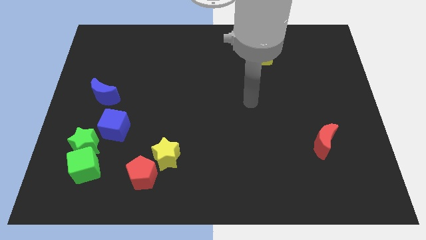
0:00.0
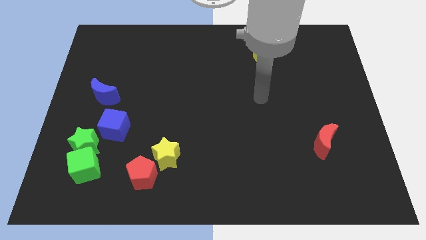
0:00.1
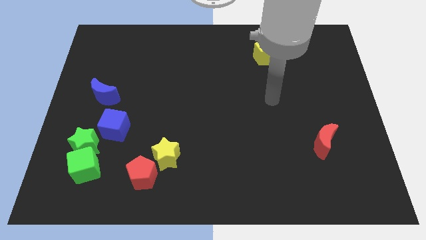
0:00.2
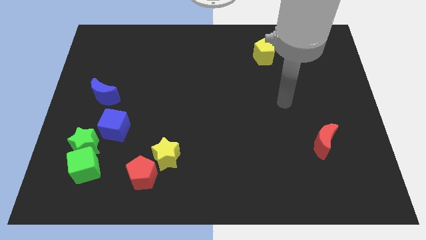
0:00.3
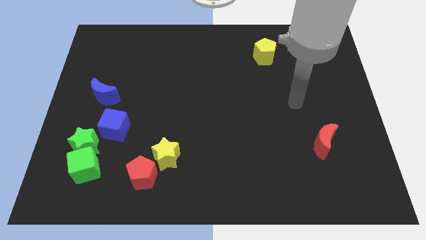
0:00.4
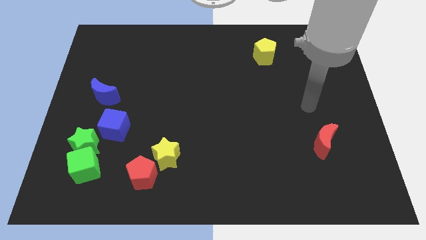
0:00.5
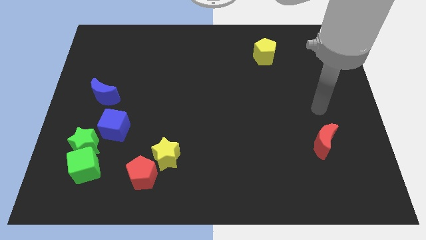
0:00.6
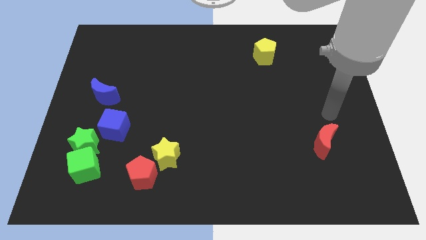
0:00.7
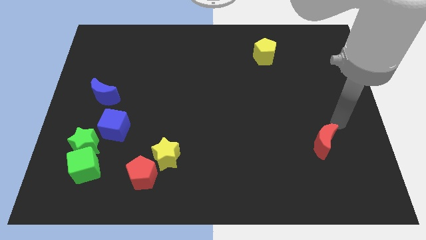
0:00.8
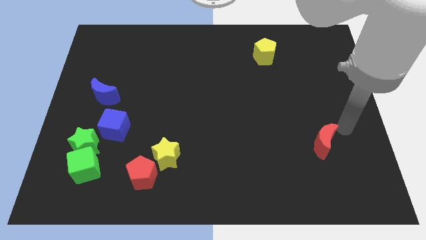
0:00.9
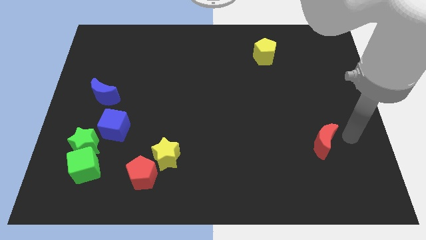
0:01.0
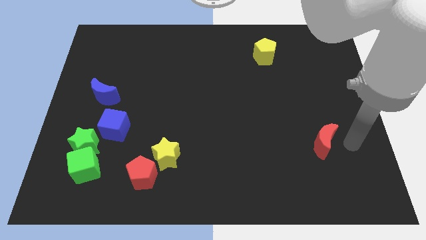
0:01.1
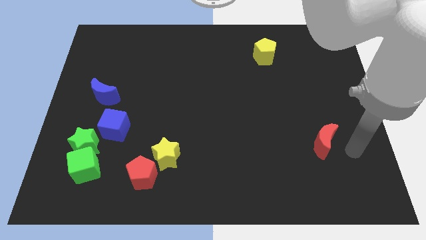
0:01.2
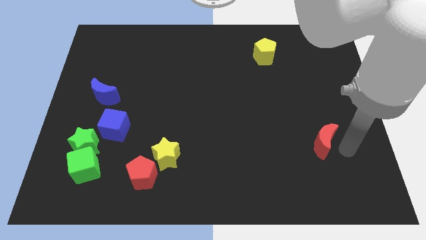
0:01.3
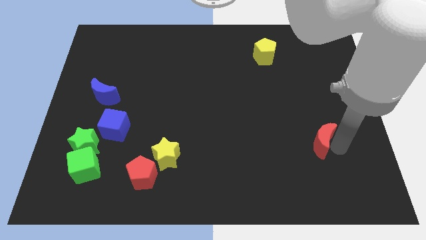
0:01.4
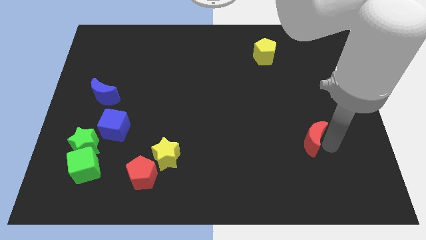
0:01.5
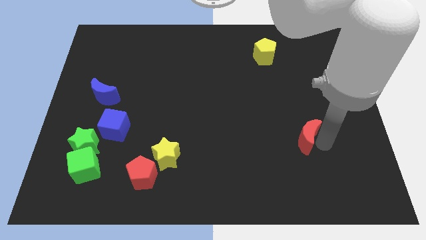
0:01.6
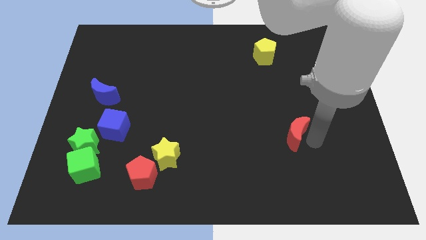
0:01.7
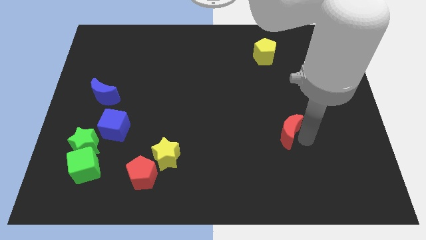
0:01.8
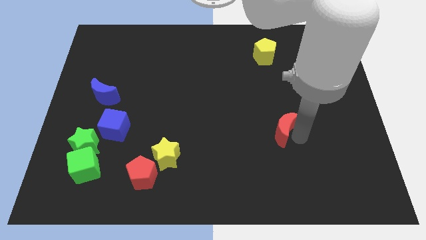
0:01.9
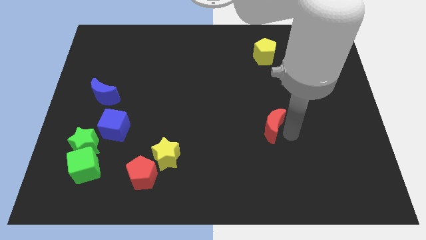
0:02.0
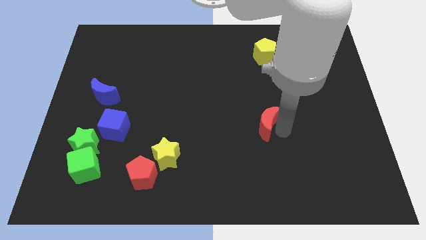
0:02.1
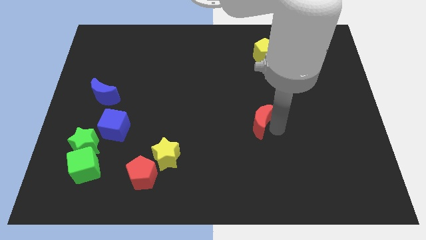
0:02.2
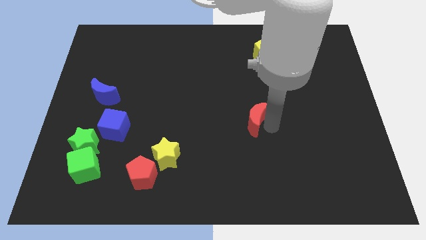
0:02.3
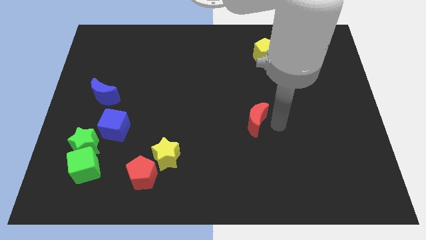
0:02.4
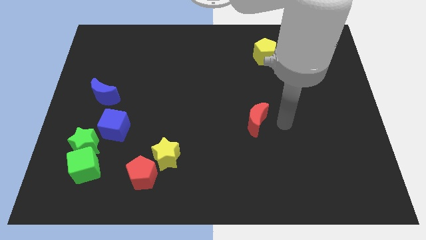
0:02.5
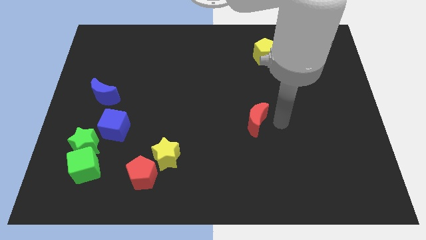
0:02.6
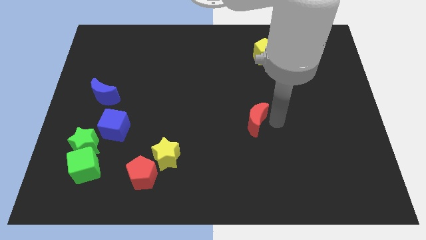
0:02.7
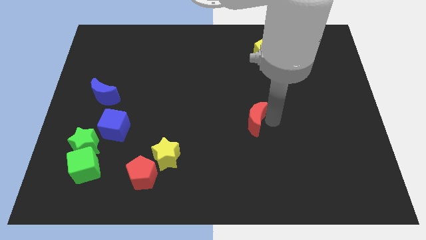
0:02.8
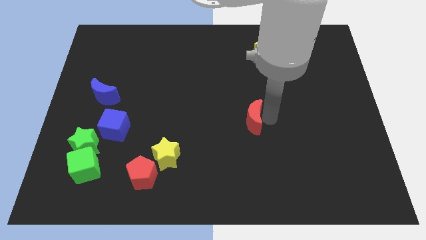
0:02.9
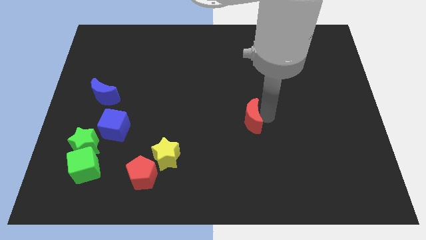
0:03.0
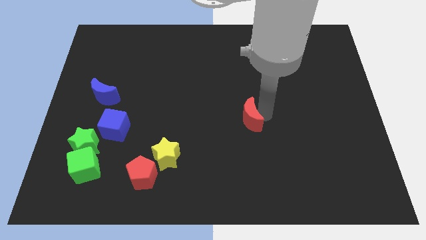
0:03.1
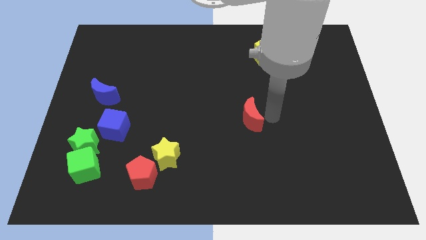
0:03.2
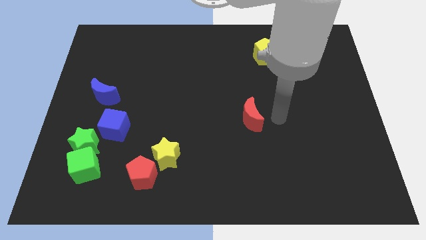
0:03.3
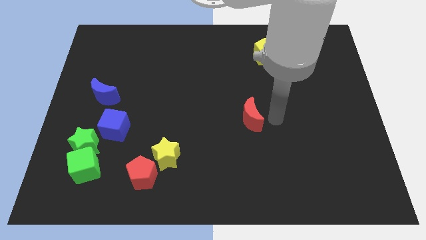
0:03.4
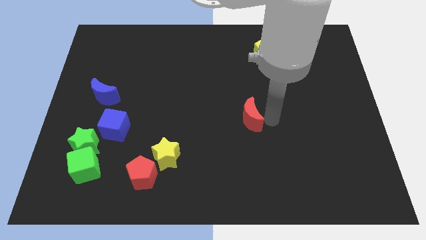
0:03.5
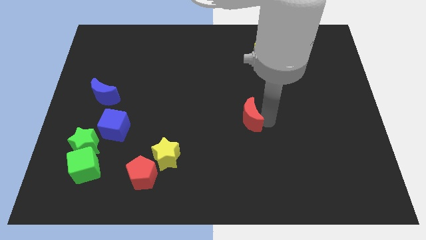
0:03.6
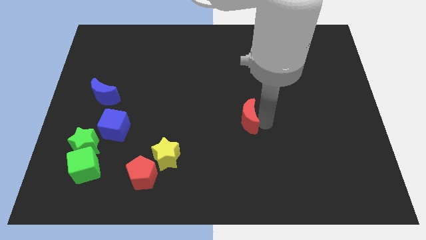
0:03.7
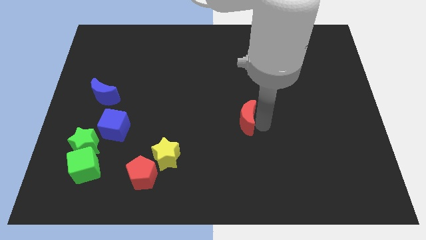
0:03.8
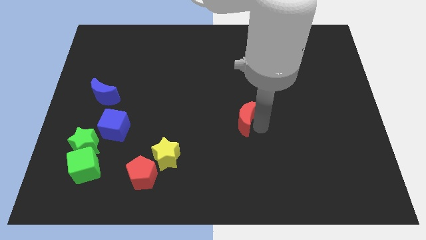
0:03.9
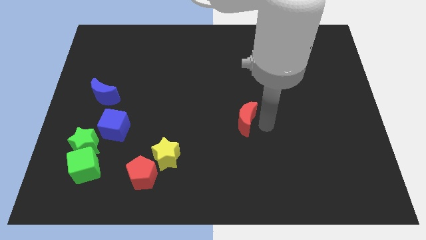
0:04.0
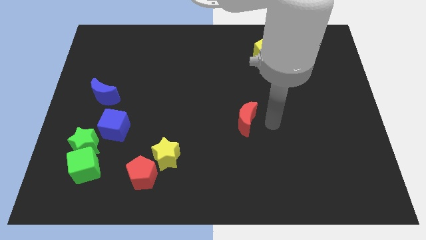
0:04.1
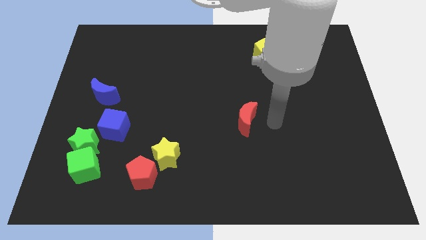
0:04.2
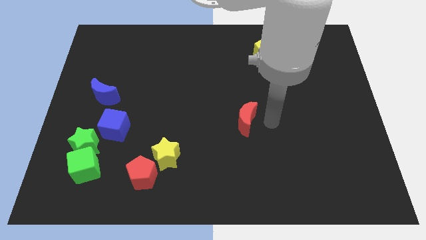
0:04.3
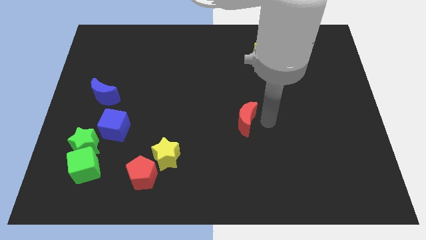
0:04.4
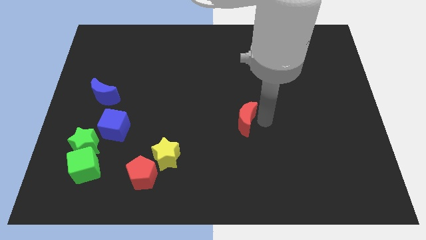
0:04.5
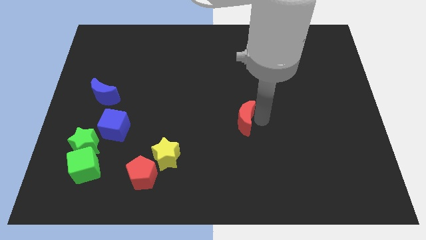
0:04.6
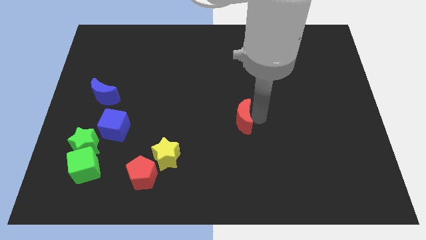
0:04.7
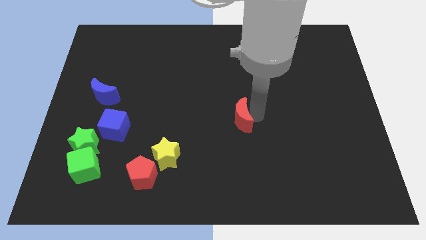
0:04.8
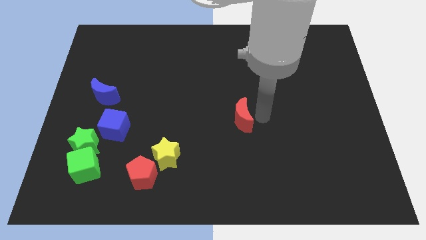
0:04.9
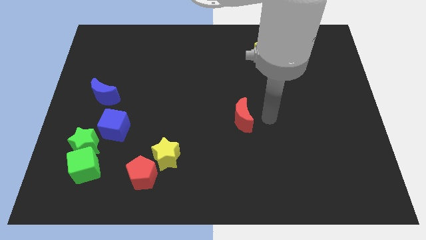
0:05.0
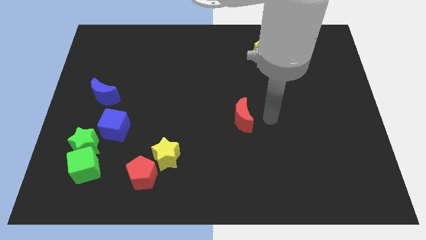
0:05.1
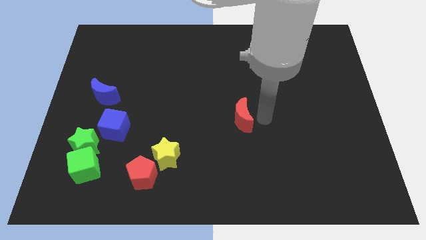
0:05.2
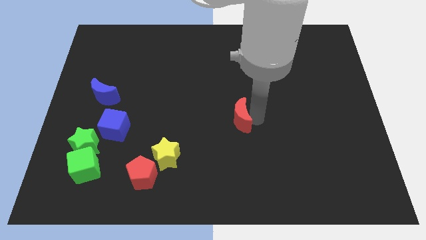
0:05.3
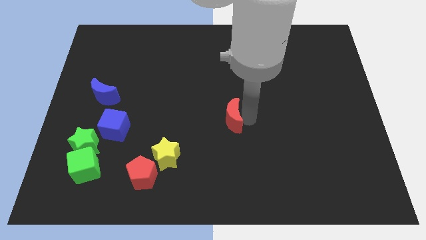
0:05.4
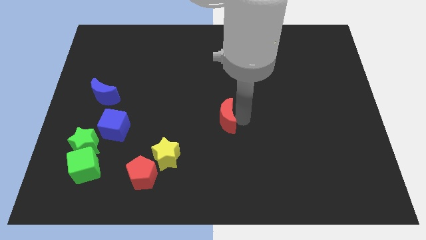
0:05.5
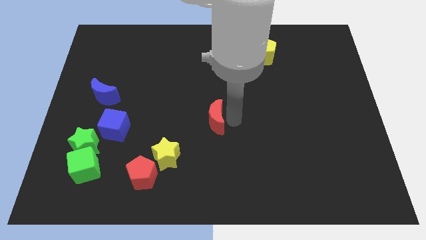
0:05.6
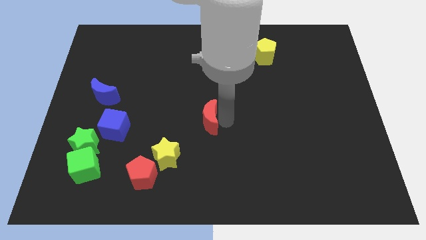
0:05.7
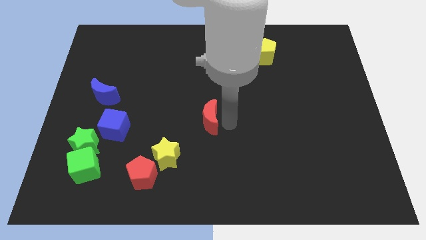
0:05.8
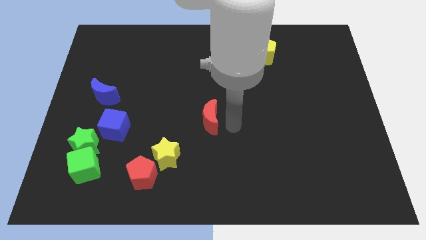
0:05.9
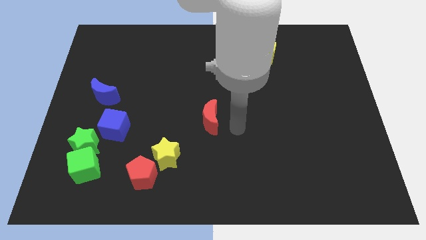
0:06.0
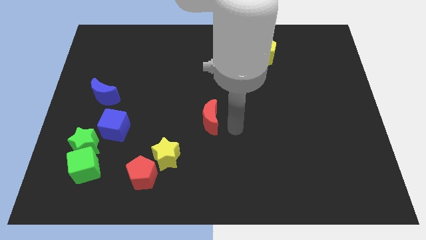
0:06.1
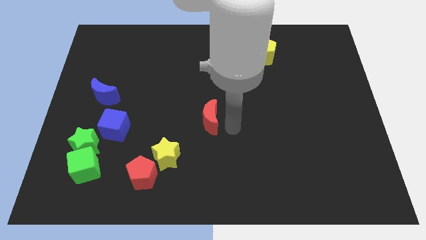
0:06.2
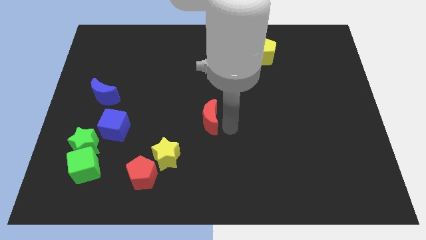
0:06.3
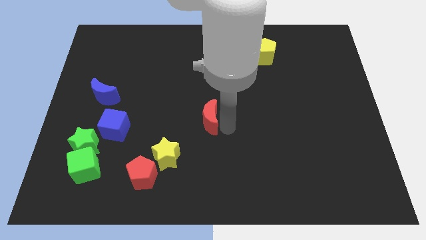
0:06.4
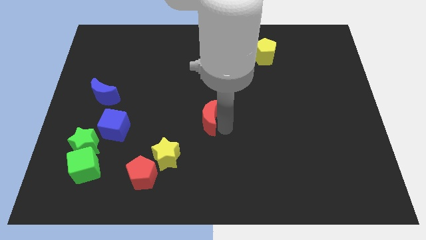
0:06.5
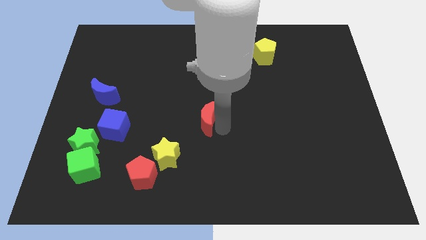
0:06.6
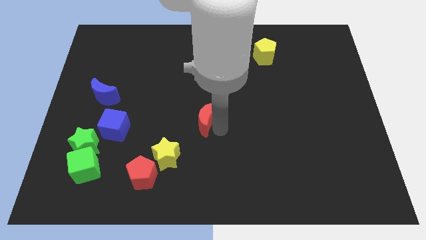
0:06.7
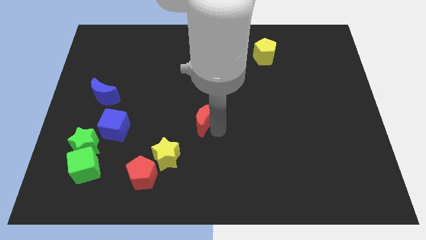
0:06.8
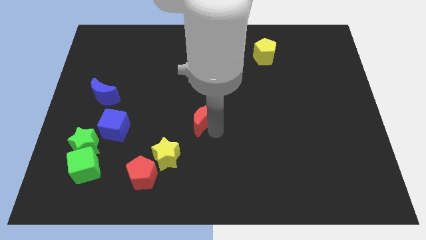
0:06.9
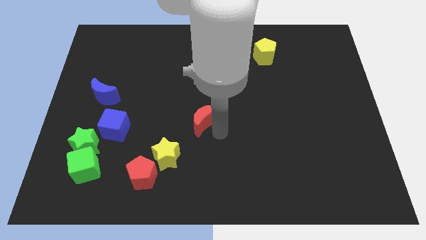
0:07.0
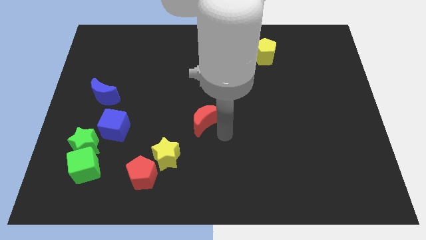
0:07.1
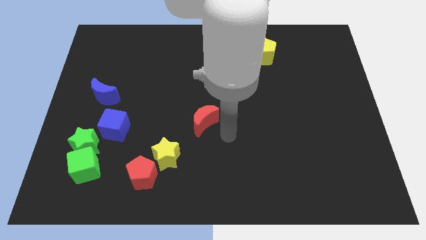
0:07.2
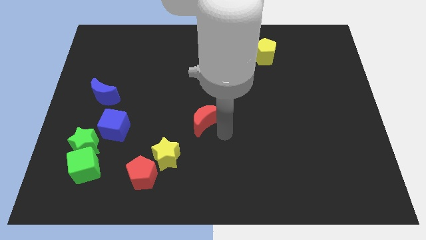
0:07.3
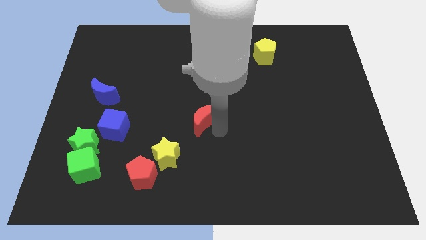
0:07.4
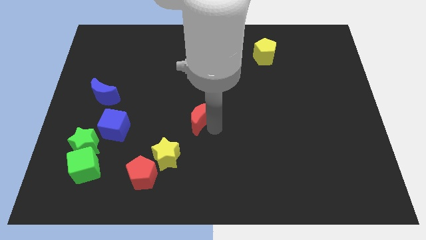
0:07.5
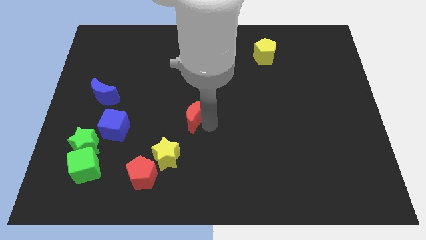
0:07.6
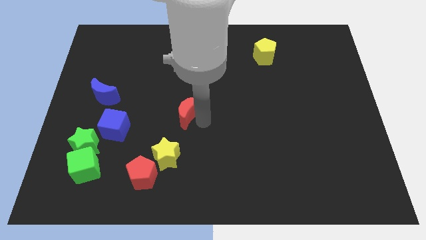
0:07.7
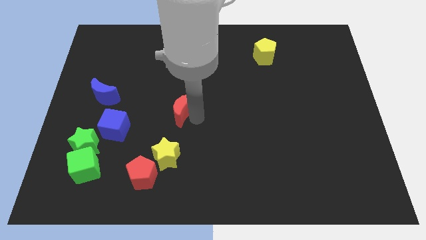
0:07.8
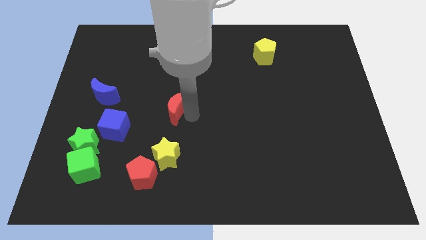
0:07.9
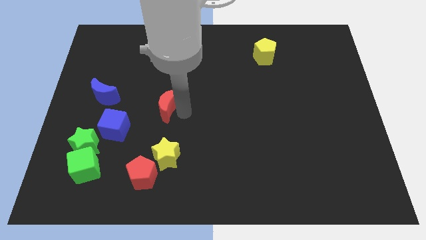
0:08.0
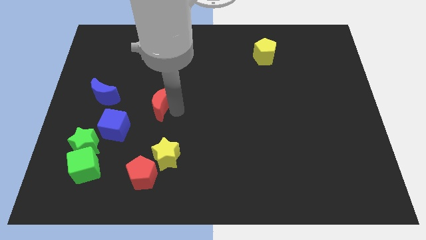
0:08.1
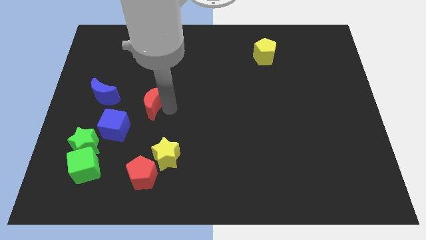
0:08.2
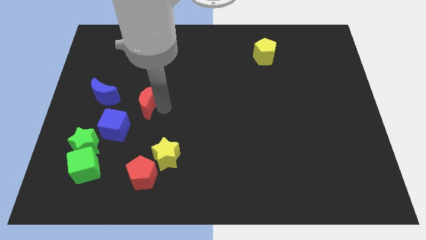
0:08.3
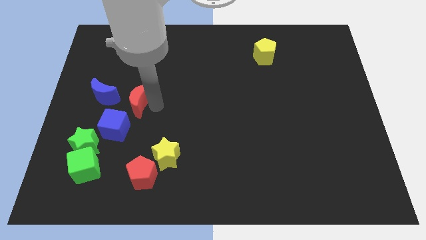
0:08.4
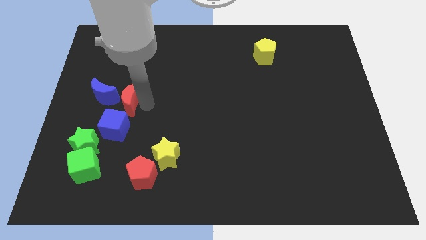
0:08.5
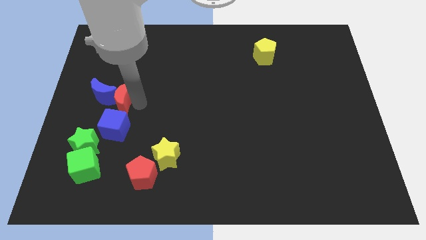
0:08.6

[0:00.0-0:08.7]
move the red moon next to the blue moon
